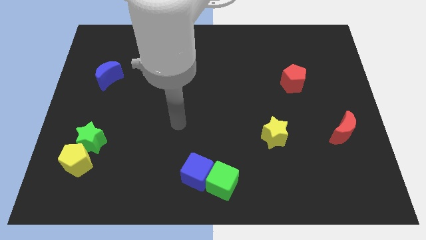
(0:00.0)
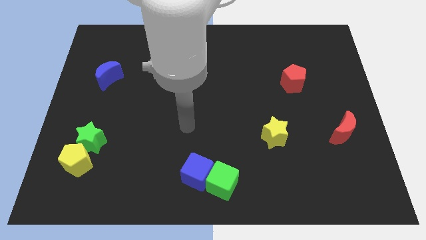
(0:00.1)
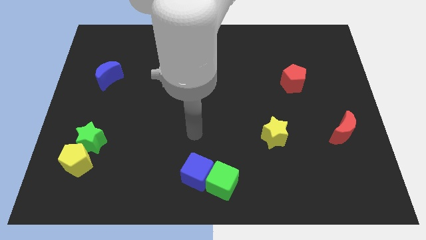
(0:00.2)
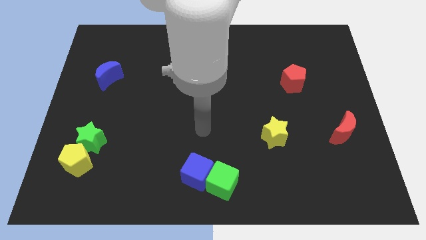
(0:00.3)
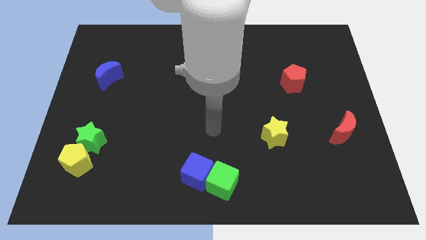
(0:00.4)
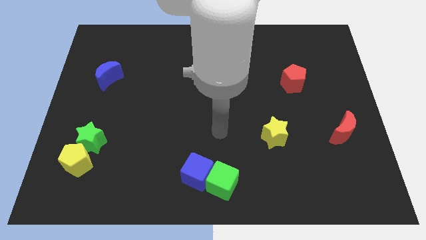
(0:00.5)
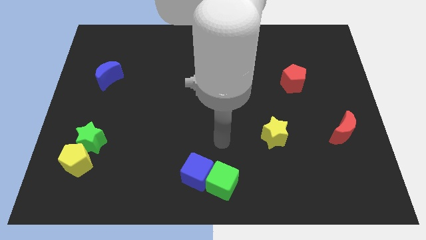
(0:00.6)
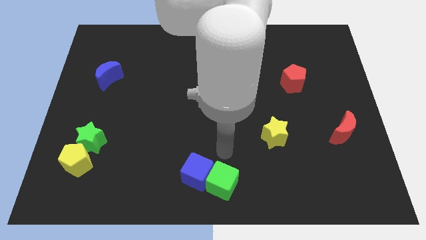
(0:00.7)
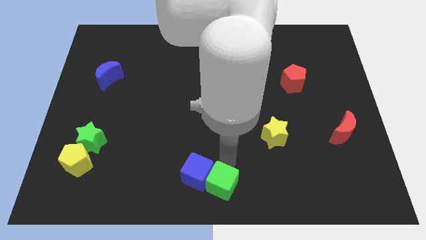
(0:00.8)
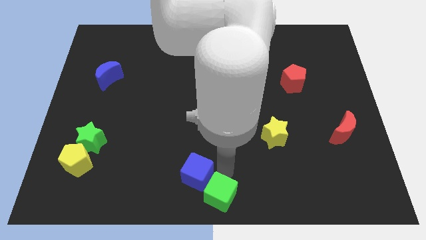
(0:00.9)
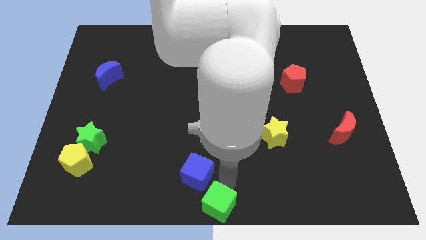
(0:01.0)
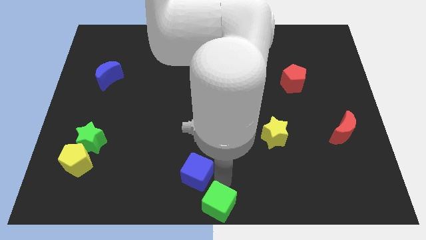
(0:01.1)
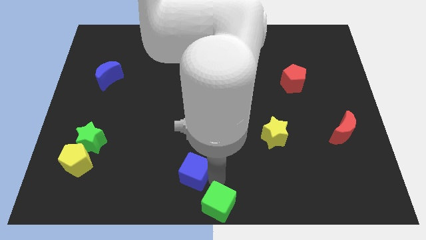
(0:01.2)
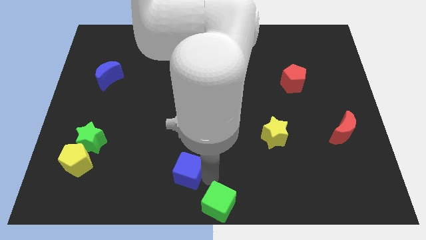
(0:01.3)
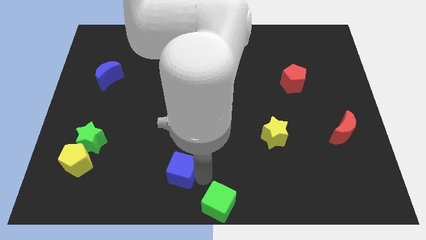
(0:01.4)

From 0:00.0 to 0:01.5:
separate the blue cube from the green cube

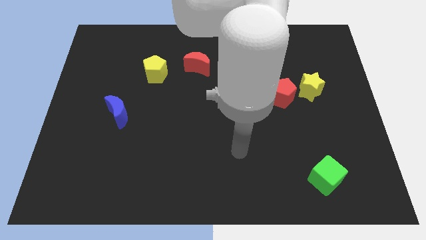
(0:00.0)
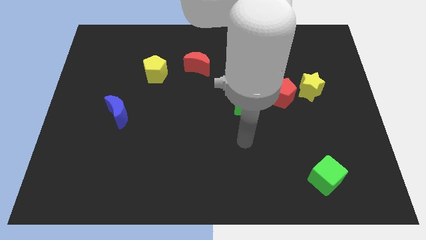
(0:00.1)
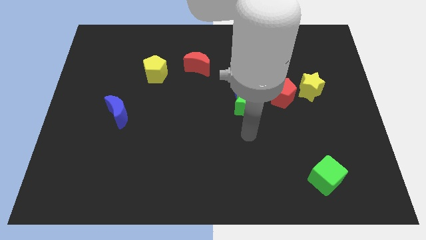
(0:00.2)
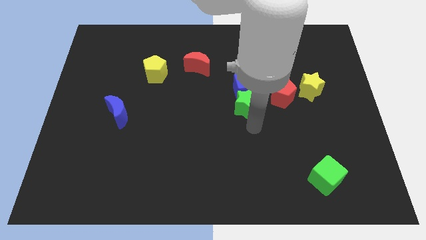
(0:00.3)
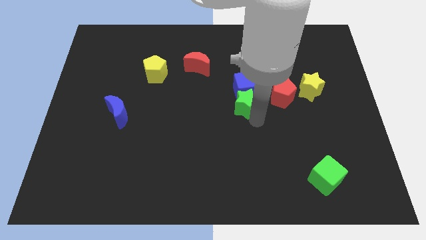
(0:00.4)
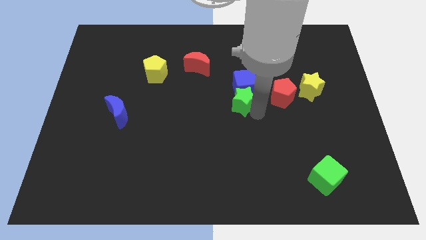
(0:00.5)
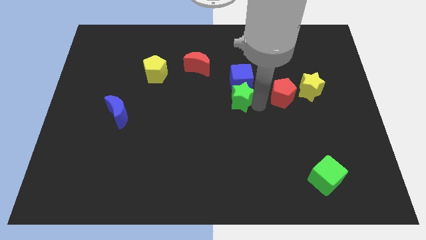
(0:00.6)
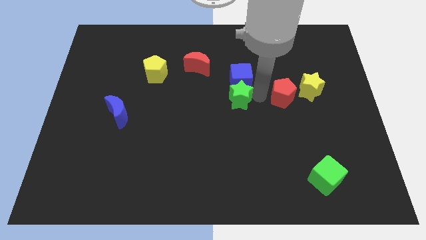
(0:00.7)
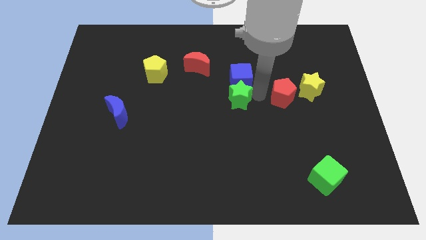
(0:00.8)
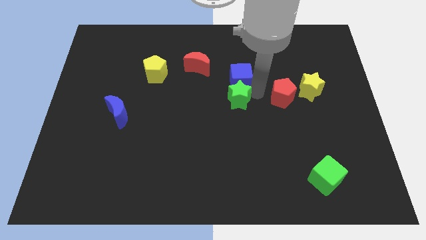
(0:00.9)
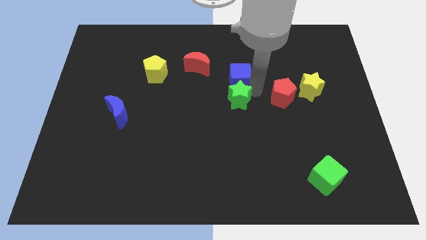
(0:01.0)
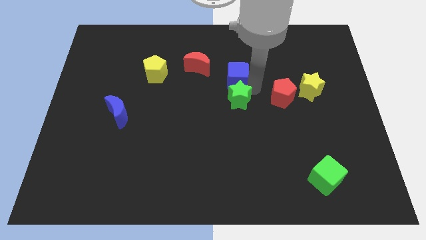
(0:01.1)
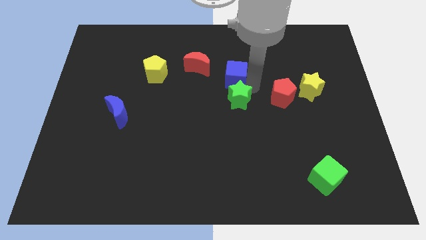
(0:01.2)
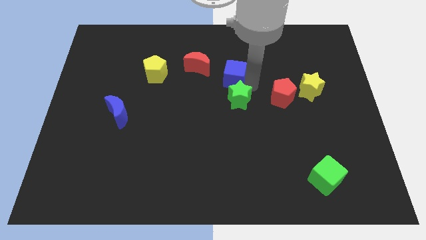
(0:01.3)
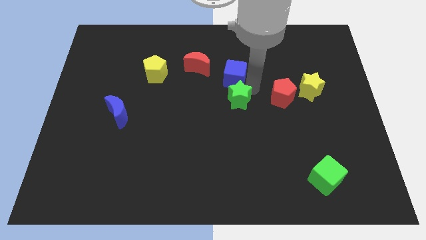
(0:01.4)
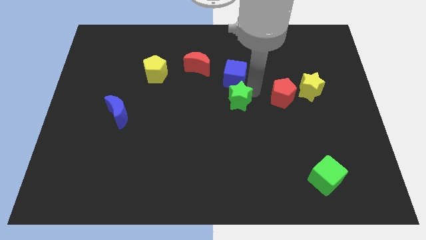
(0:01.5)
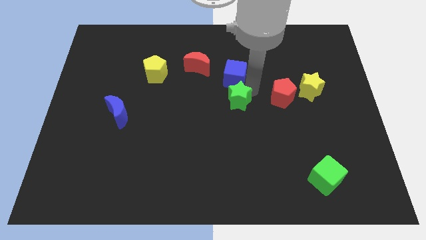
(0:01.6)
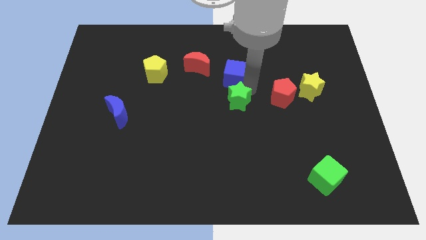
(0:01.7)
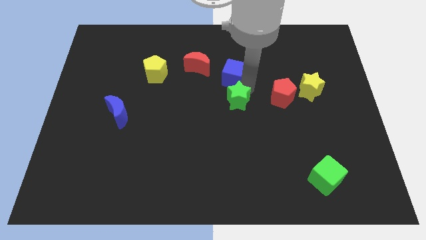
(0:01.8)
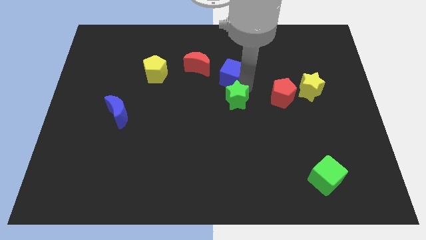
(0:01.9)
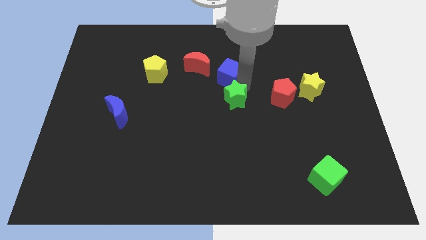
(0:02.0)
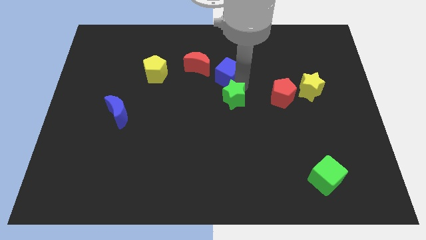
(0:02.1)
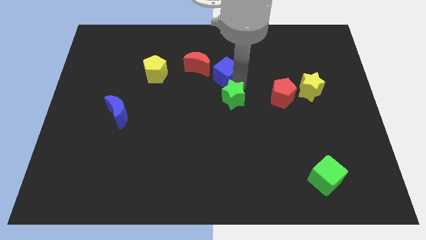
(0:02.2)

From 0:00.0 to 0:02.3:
move the blue cube away from the green star and red pentagon

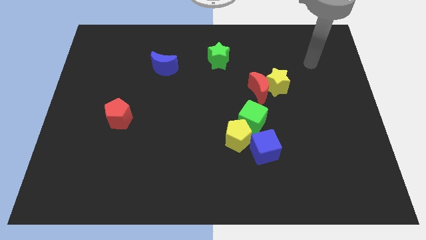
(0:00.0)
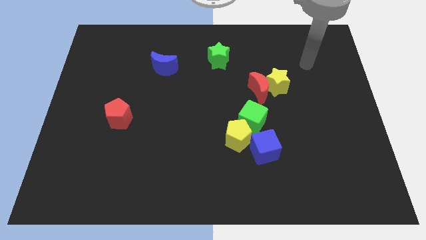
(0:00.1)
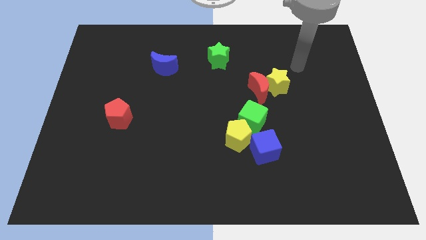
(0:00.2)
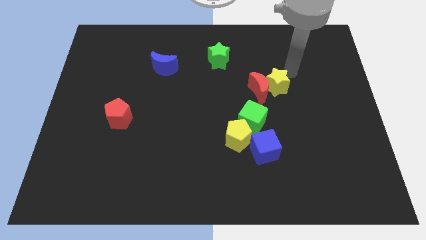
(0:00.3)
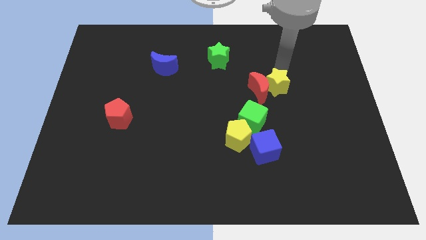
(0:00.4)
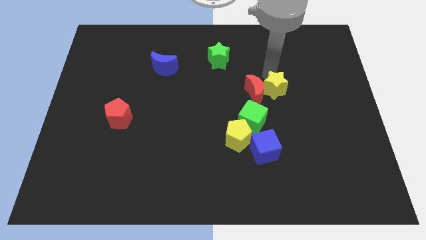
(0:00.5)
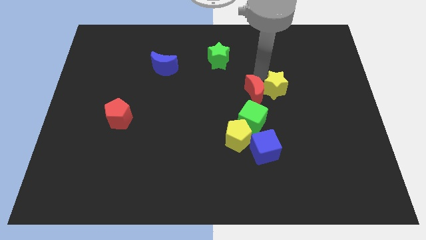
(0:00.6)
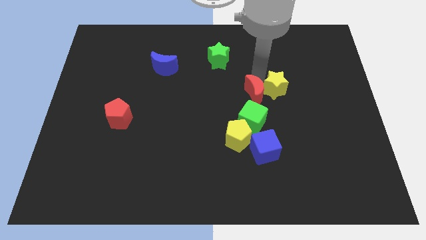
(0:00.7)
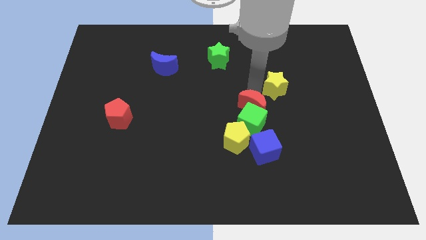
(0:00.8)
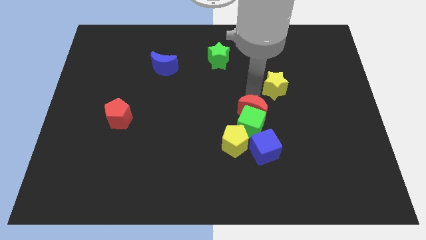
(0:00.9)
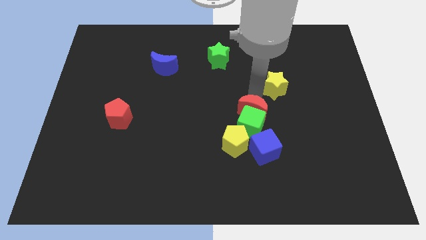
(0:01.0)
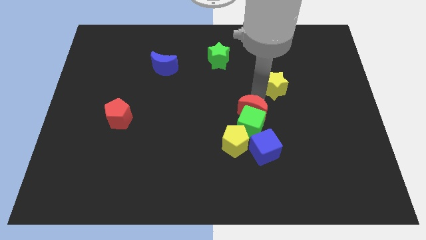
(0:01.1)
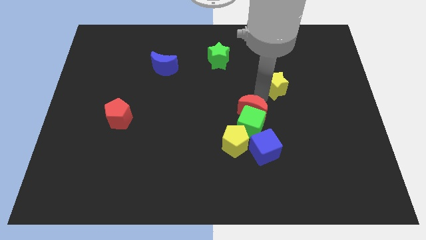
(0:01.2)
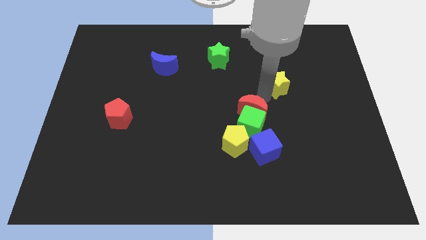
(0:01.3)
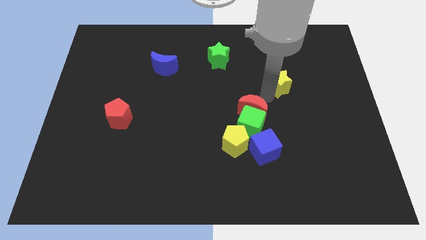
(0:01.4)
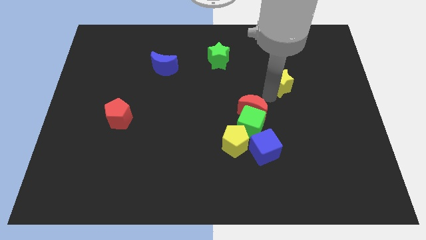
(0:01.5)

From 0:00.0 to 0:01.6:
pull the yellow star apart from the red moon

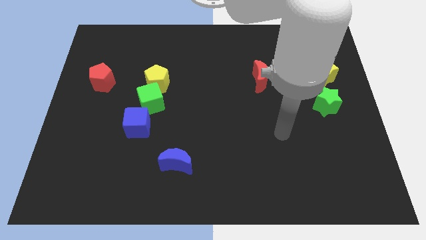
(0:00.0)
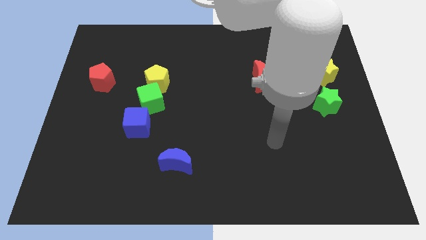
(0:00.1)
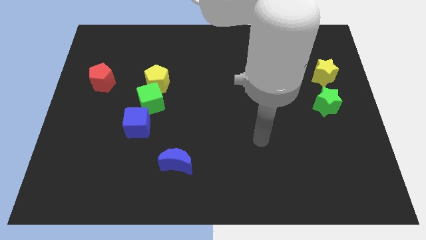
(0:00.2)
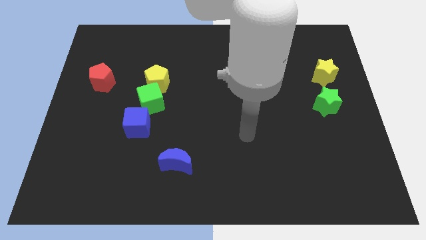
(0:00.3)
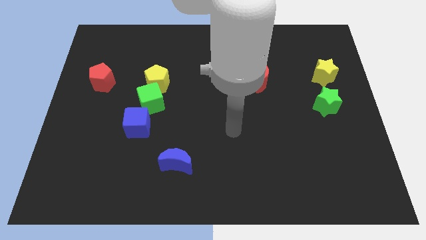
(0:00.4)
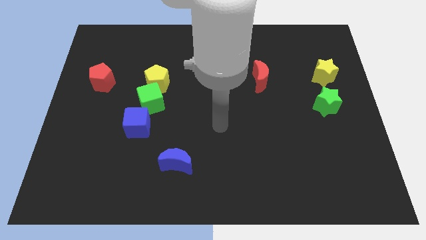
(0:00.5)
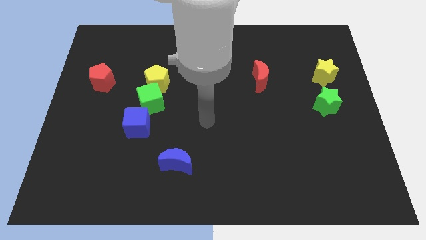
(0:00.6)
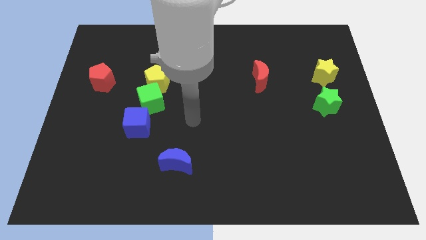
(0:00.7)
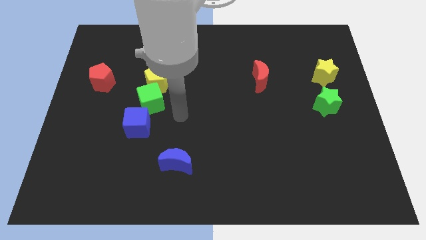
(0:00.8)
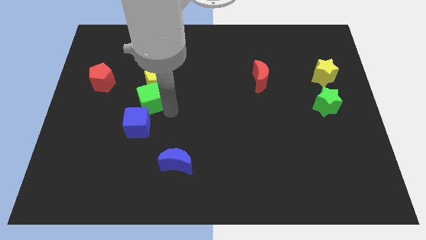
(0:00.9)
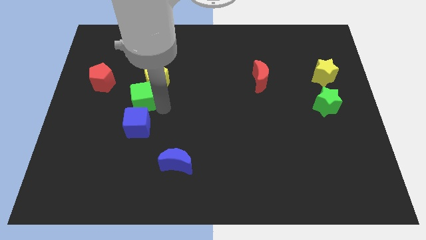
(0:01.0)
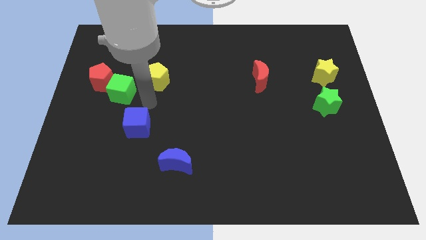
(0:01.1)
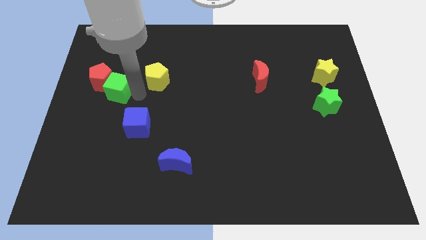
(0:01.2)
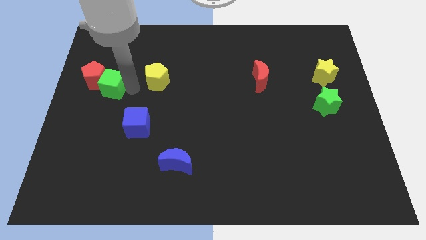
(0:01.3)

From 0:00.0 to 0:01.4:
separate the yellow pentagon from the green cube

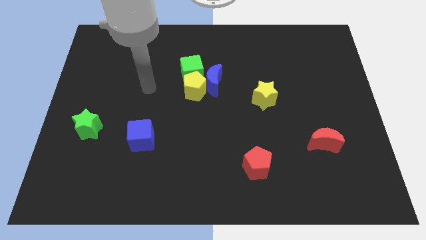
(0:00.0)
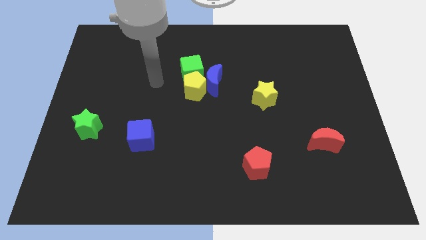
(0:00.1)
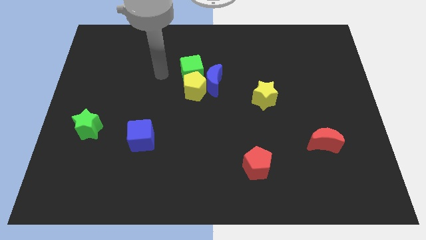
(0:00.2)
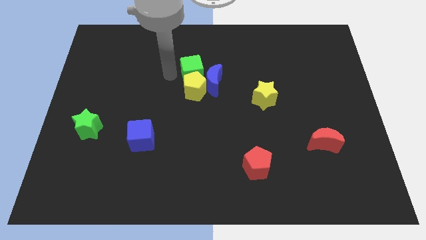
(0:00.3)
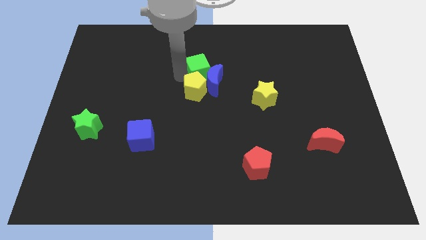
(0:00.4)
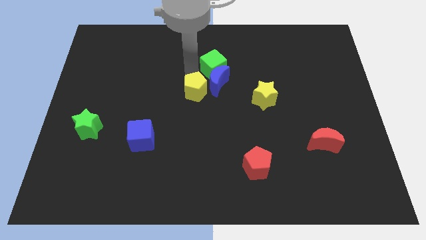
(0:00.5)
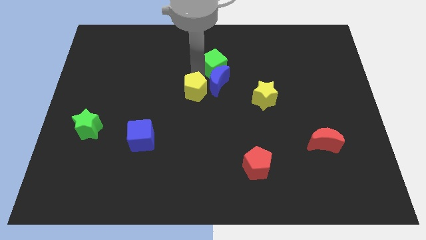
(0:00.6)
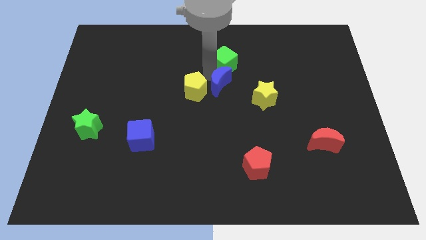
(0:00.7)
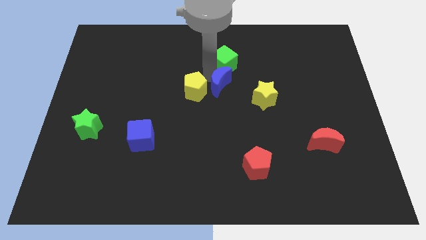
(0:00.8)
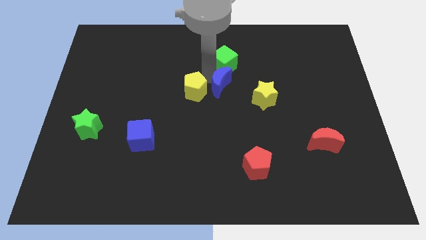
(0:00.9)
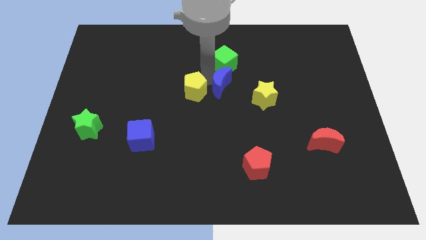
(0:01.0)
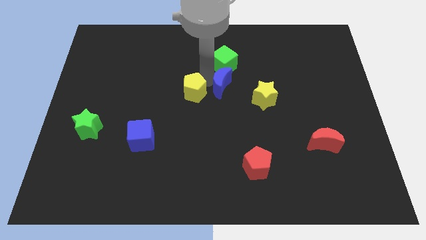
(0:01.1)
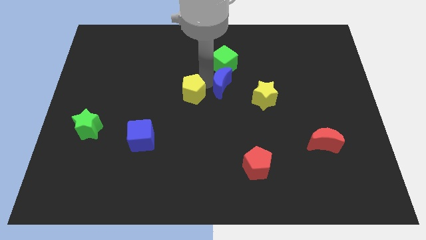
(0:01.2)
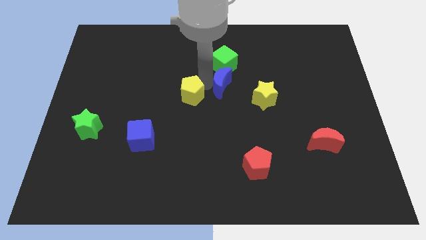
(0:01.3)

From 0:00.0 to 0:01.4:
separate the yellow pentagon from the blue moon and green cube

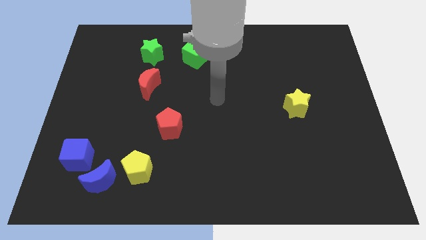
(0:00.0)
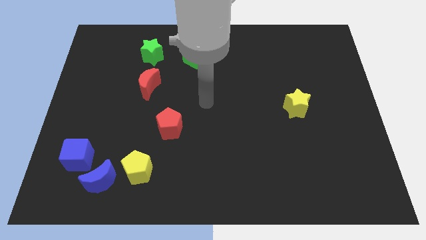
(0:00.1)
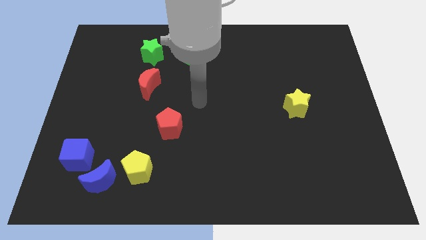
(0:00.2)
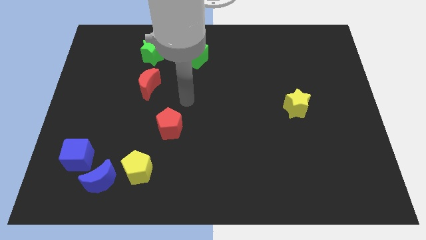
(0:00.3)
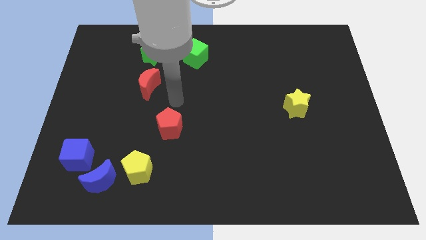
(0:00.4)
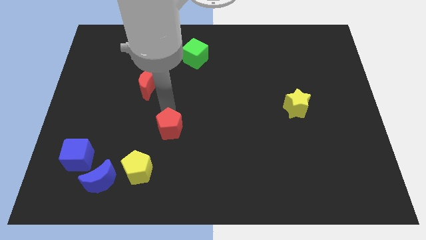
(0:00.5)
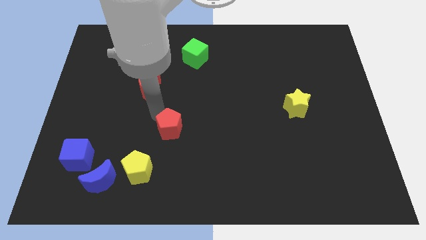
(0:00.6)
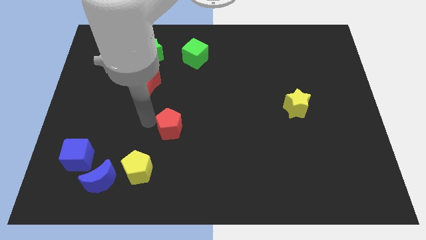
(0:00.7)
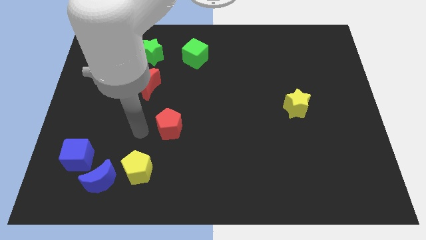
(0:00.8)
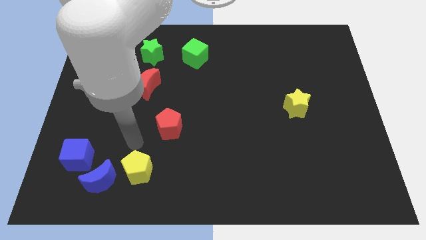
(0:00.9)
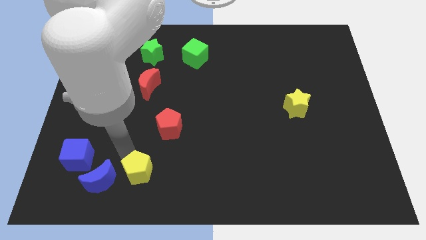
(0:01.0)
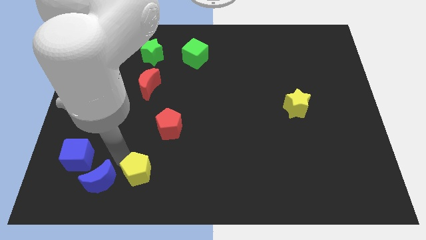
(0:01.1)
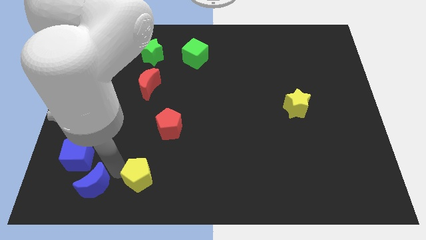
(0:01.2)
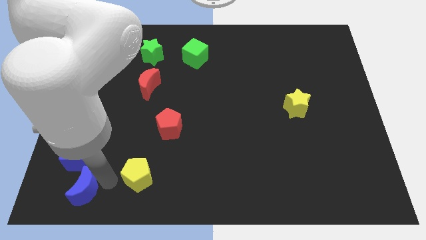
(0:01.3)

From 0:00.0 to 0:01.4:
move the yellow pentagon away from the blue moon
